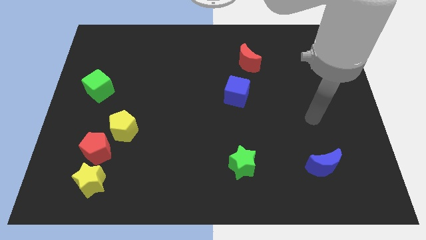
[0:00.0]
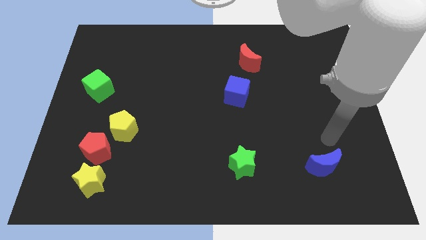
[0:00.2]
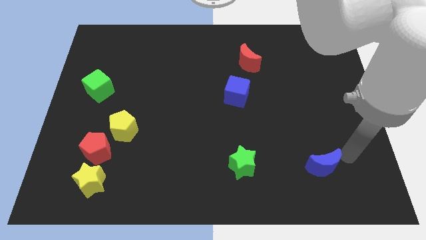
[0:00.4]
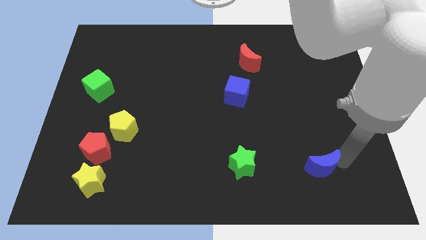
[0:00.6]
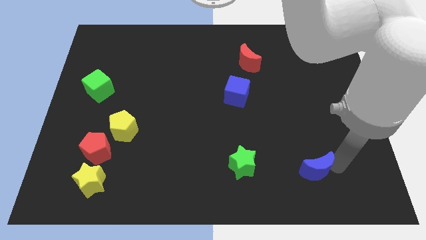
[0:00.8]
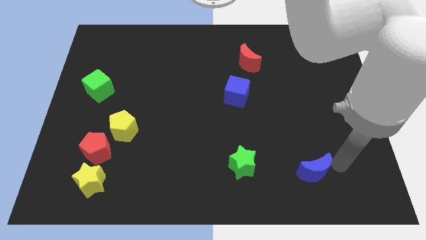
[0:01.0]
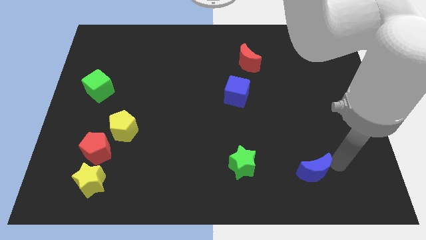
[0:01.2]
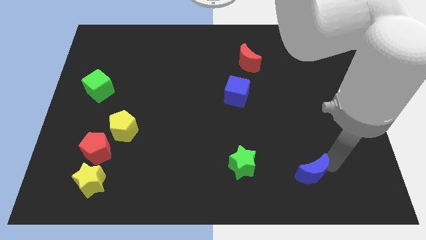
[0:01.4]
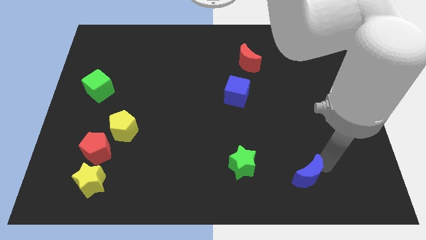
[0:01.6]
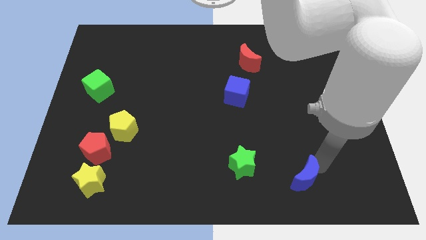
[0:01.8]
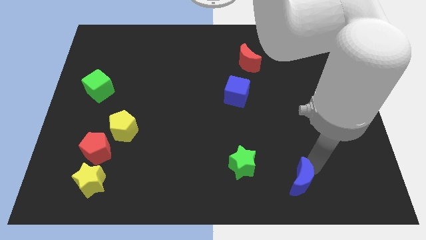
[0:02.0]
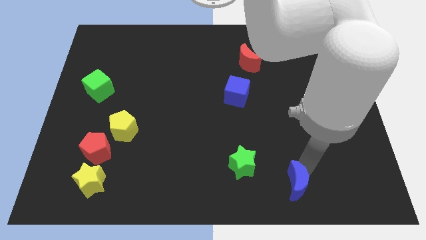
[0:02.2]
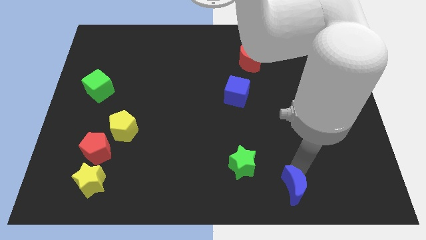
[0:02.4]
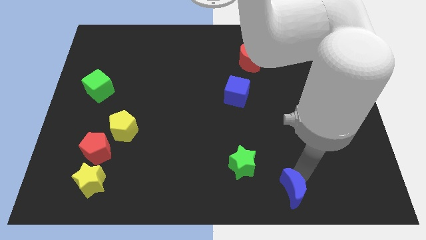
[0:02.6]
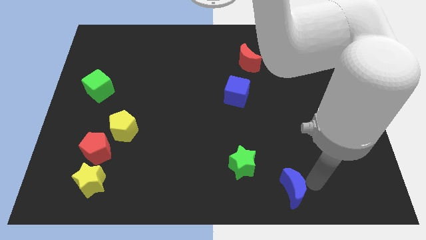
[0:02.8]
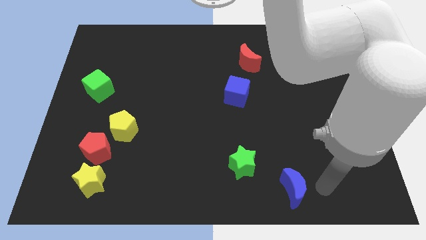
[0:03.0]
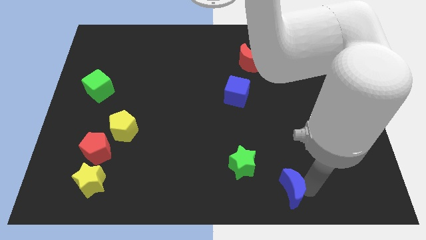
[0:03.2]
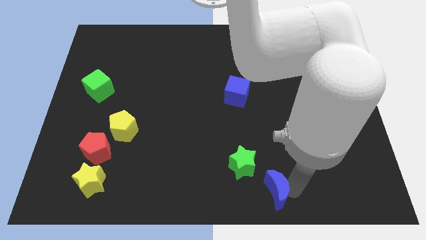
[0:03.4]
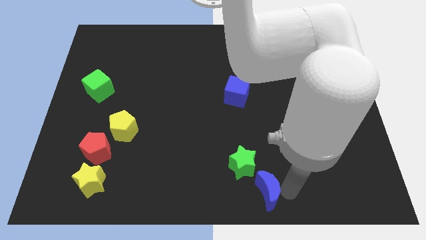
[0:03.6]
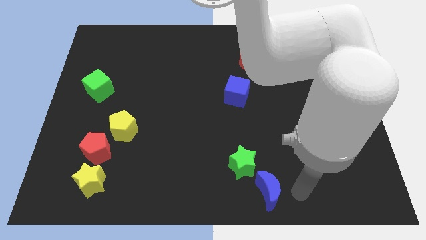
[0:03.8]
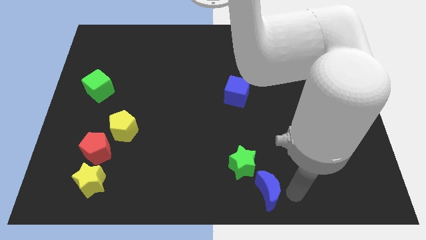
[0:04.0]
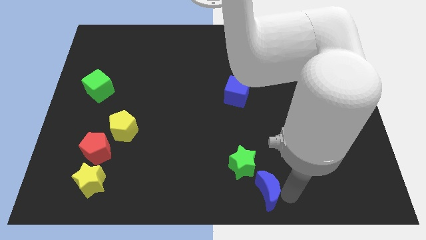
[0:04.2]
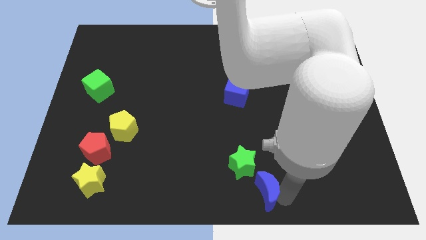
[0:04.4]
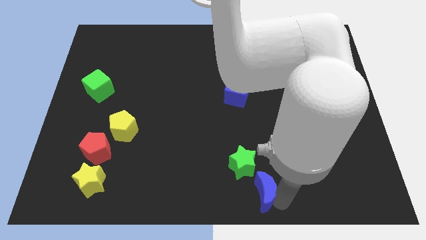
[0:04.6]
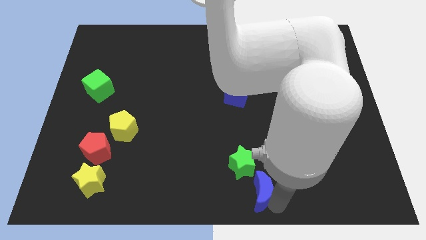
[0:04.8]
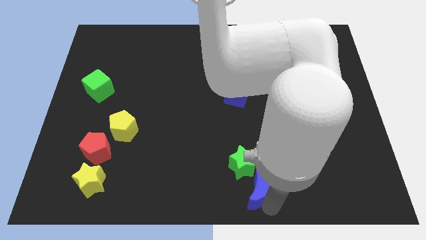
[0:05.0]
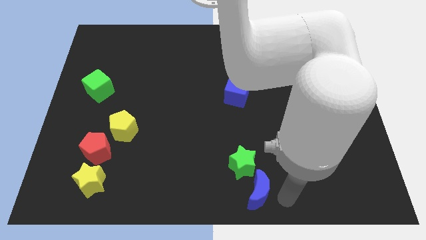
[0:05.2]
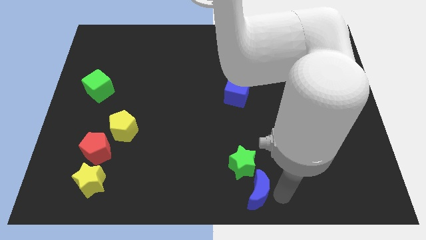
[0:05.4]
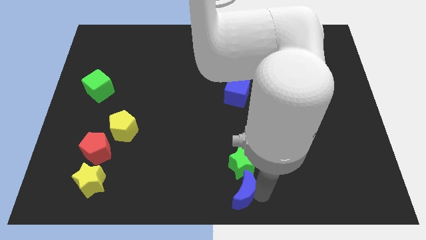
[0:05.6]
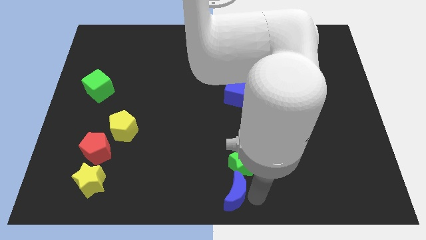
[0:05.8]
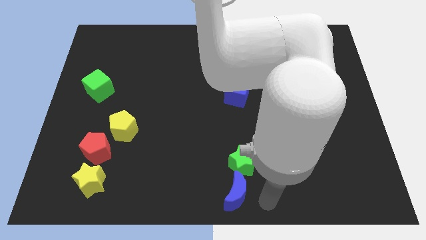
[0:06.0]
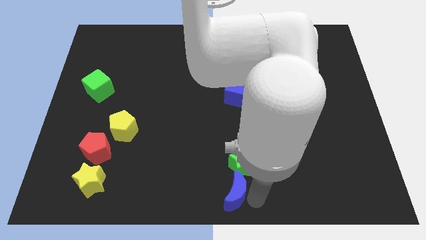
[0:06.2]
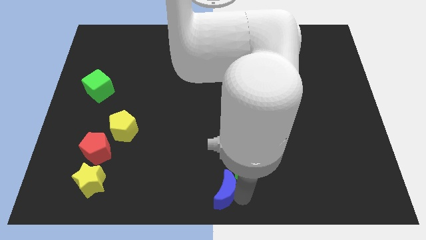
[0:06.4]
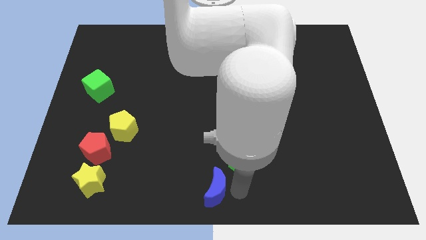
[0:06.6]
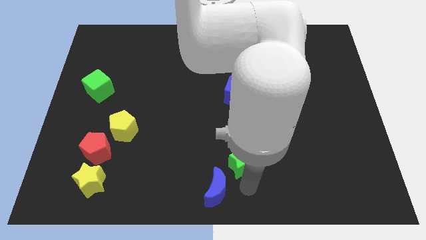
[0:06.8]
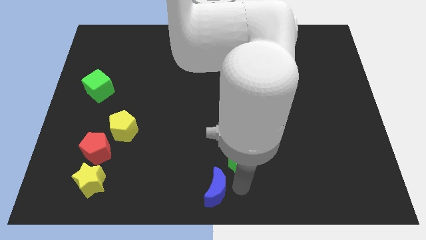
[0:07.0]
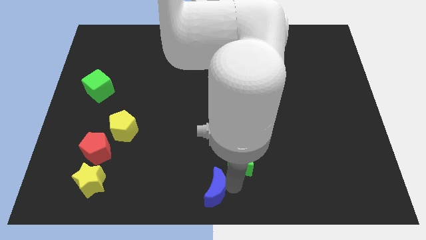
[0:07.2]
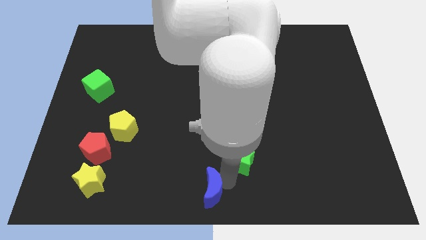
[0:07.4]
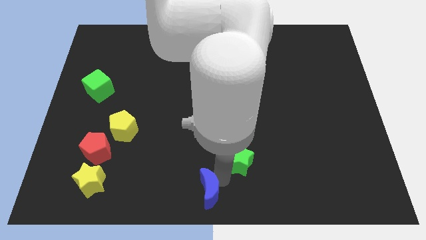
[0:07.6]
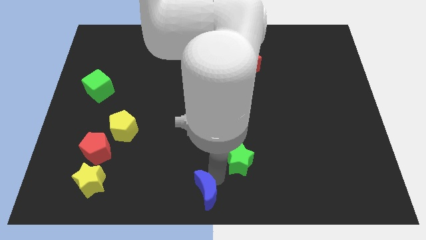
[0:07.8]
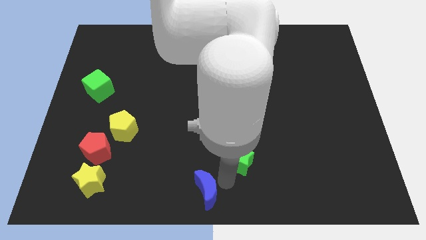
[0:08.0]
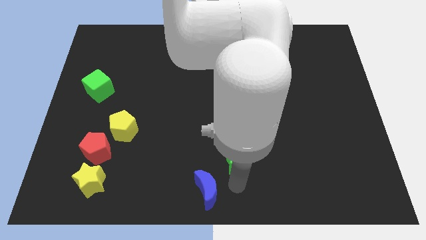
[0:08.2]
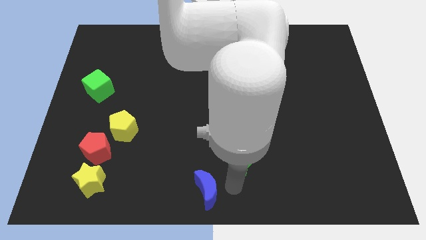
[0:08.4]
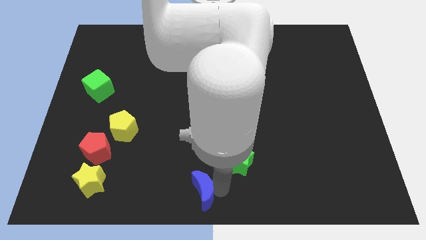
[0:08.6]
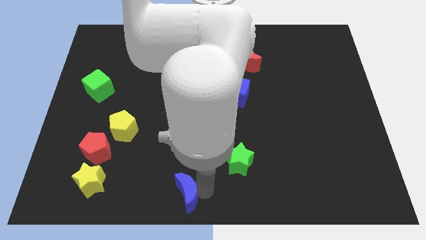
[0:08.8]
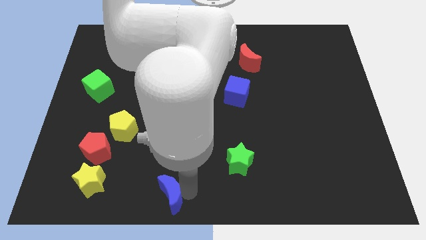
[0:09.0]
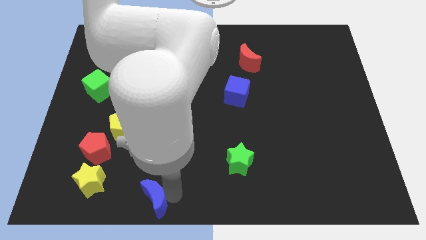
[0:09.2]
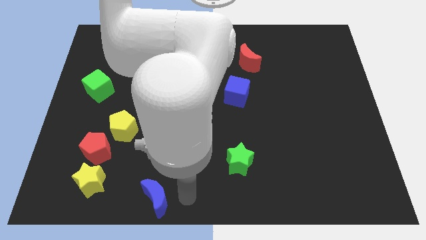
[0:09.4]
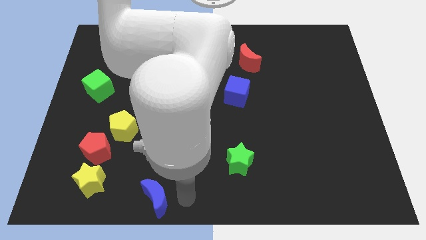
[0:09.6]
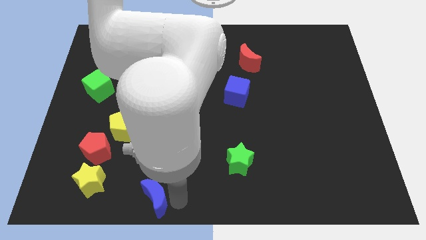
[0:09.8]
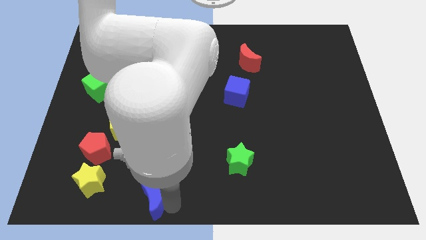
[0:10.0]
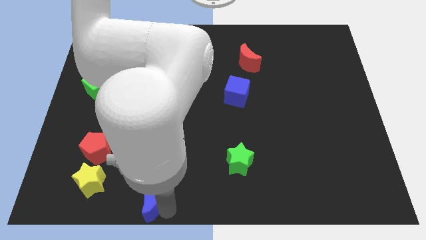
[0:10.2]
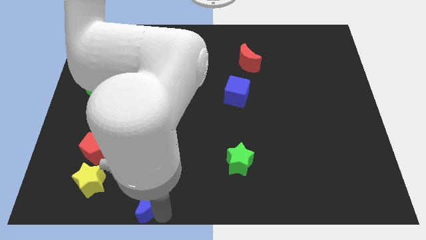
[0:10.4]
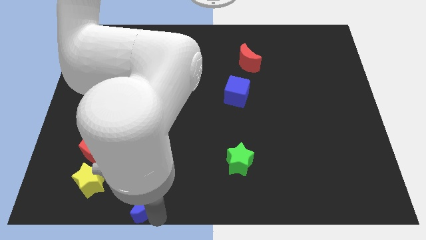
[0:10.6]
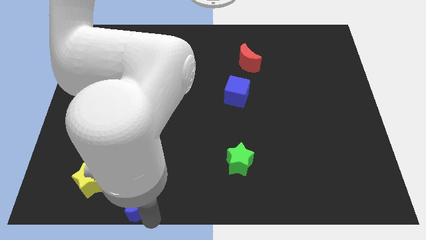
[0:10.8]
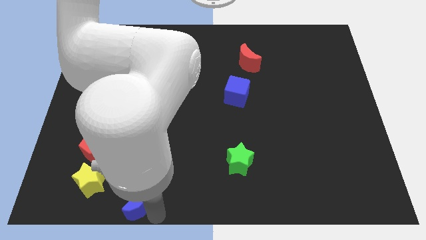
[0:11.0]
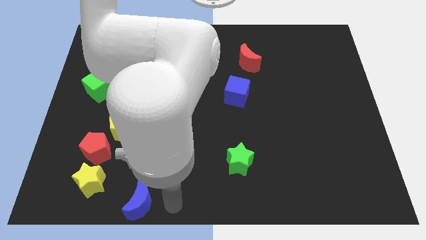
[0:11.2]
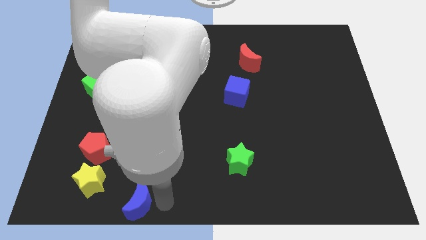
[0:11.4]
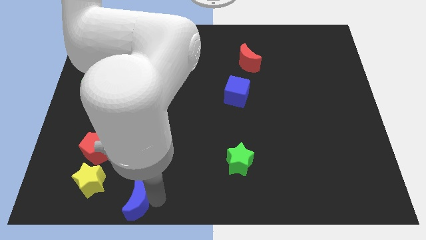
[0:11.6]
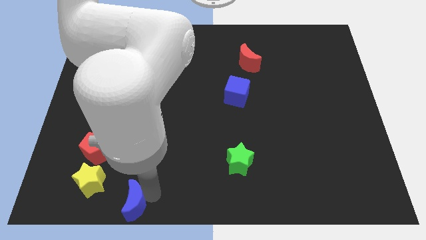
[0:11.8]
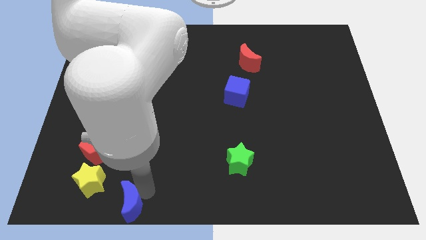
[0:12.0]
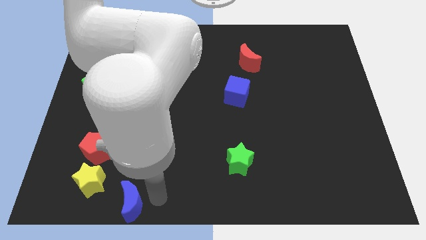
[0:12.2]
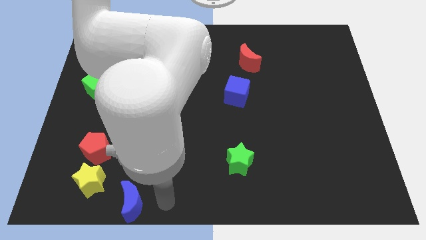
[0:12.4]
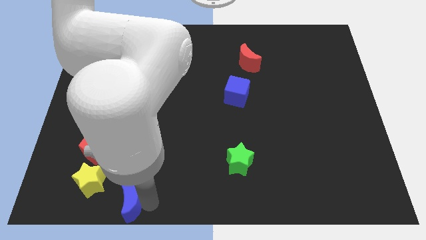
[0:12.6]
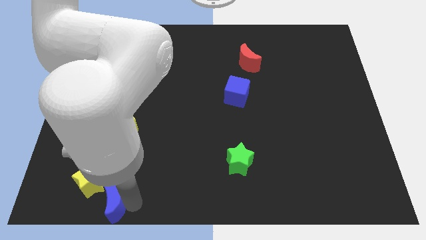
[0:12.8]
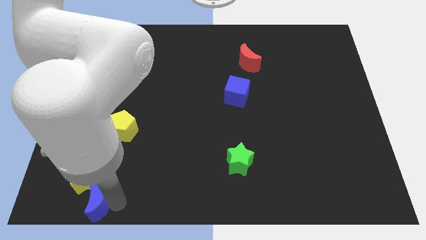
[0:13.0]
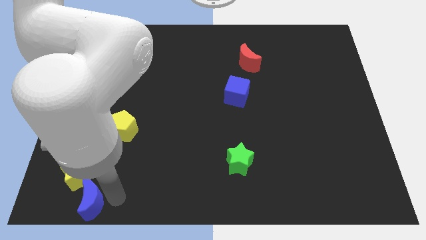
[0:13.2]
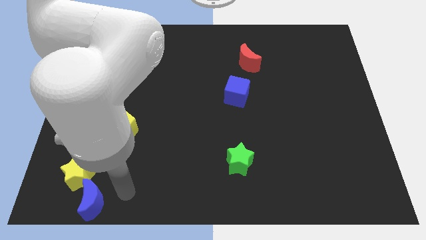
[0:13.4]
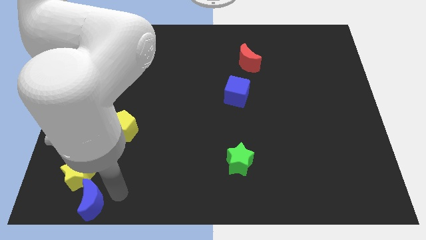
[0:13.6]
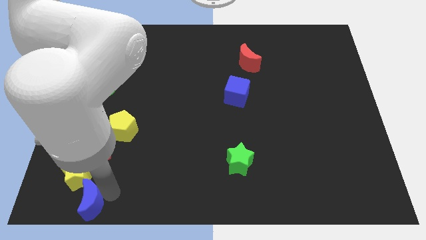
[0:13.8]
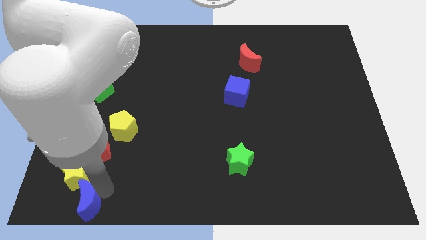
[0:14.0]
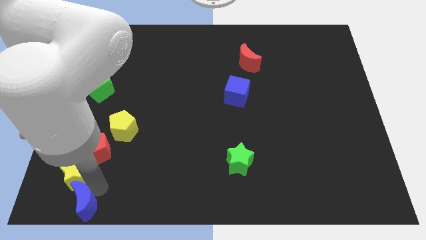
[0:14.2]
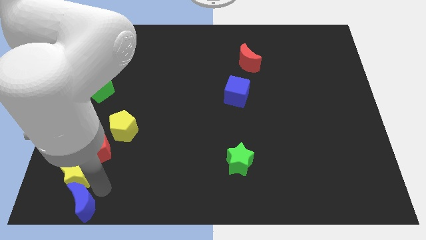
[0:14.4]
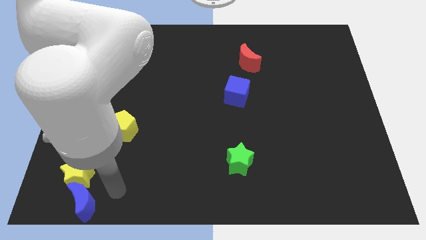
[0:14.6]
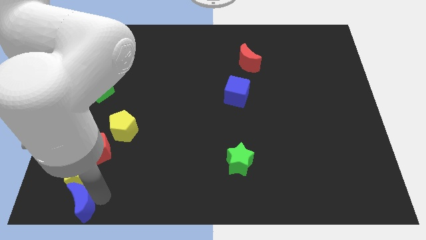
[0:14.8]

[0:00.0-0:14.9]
slide the blue moon to the bottom left of the board
